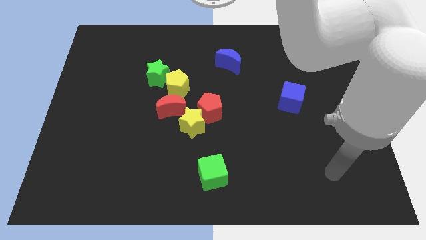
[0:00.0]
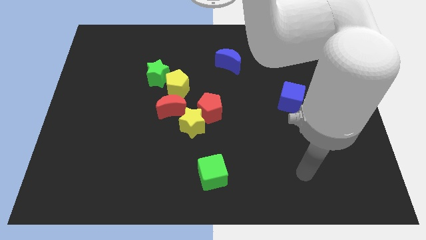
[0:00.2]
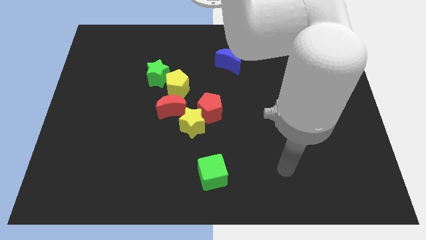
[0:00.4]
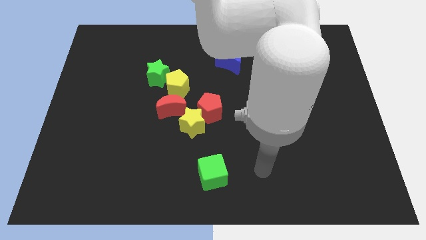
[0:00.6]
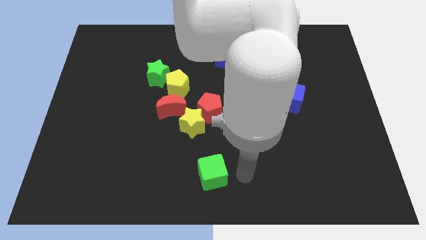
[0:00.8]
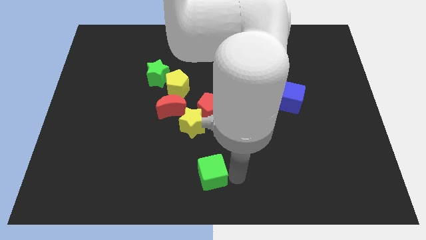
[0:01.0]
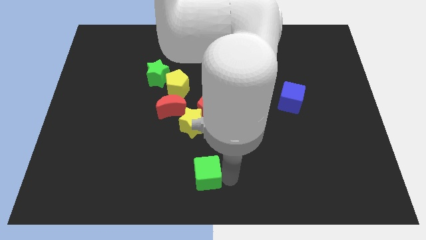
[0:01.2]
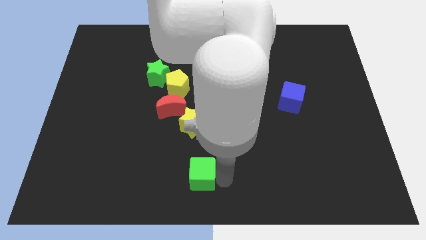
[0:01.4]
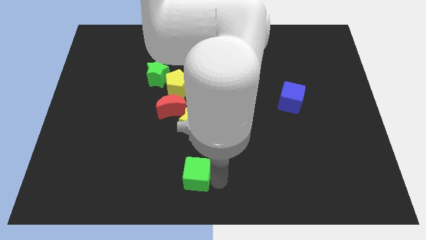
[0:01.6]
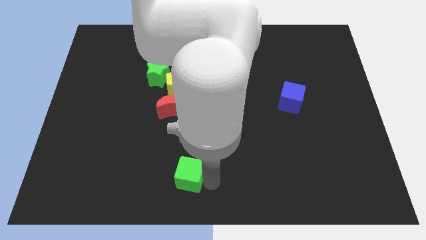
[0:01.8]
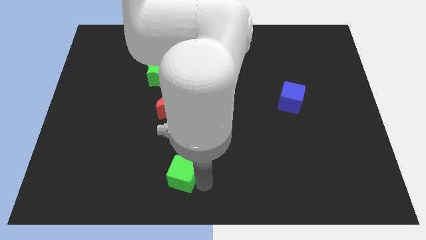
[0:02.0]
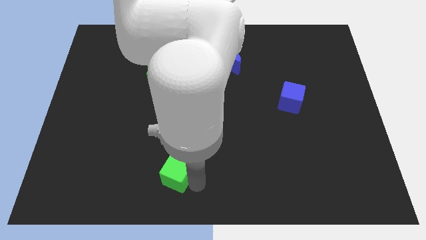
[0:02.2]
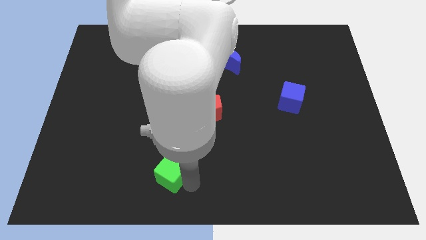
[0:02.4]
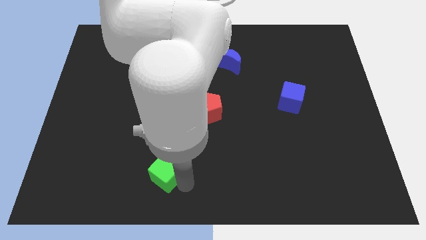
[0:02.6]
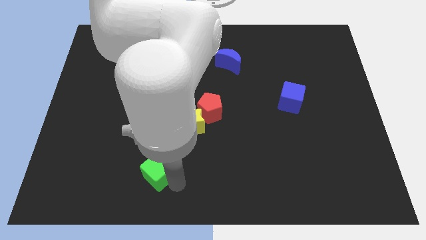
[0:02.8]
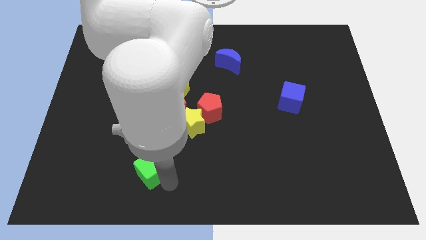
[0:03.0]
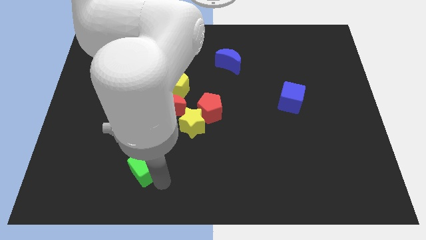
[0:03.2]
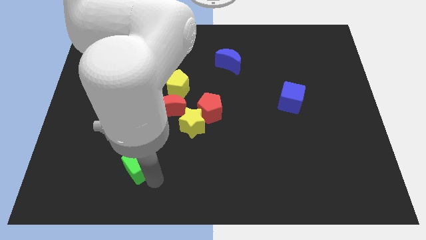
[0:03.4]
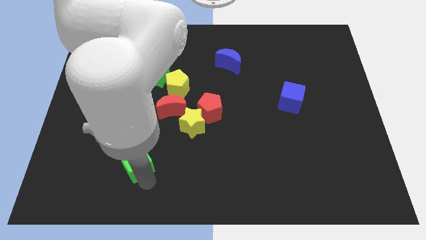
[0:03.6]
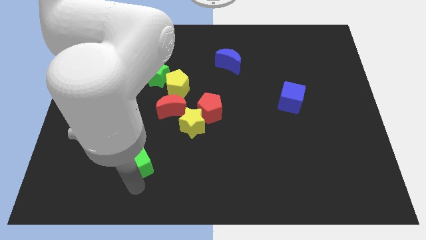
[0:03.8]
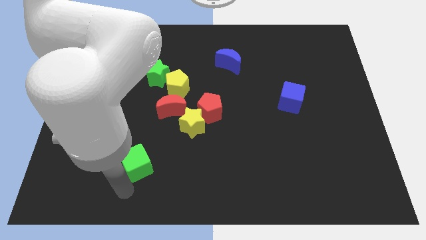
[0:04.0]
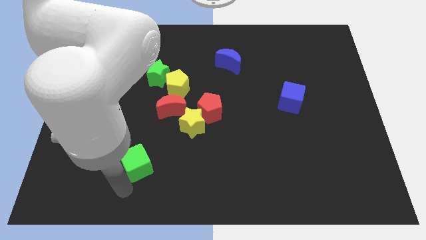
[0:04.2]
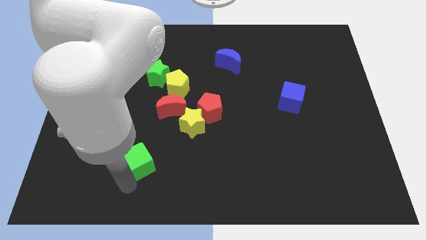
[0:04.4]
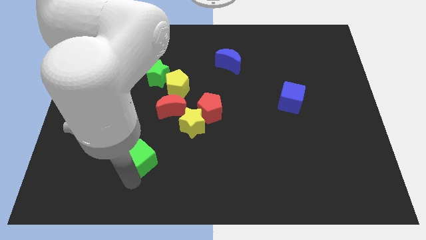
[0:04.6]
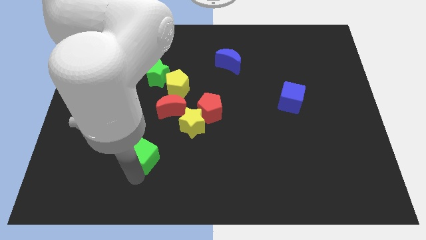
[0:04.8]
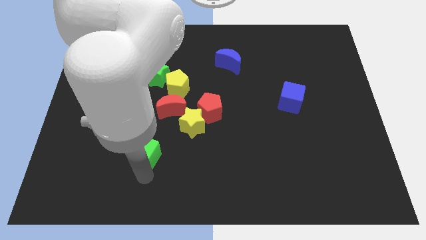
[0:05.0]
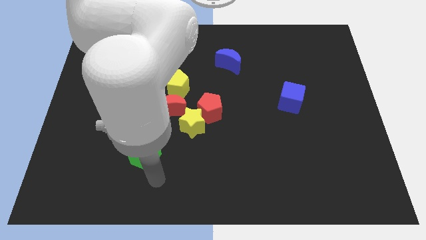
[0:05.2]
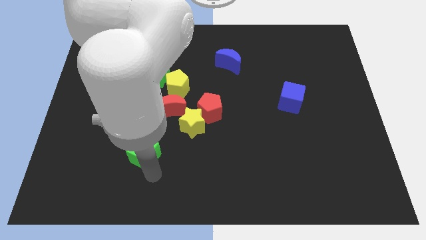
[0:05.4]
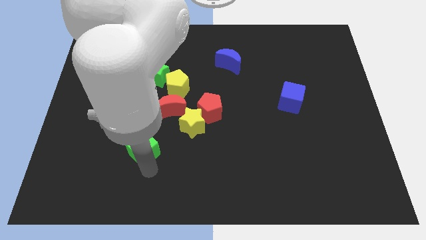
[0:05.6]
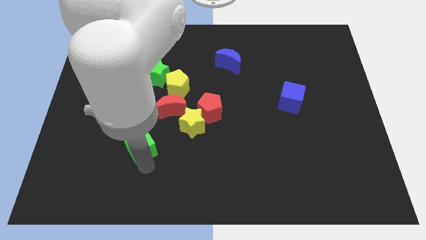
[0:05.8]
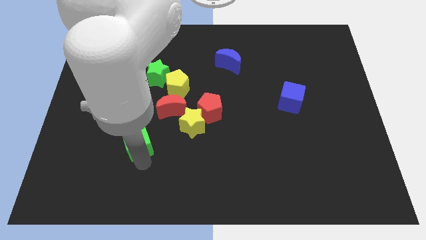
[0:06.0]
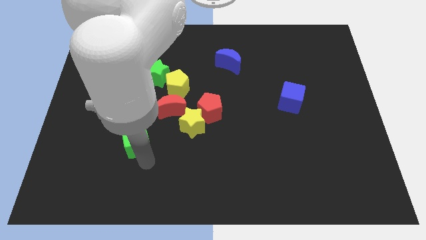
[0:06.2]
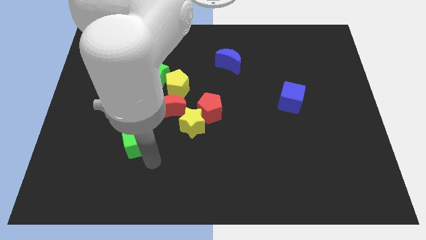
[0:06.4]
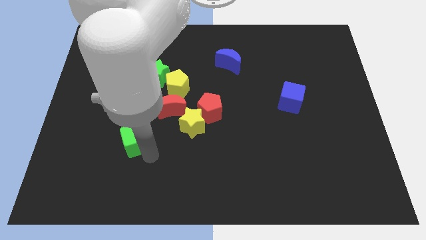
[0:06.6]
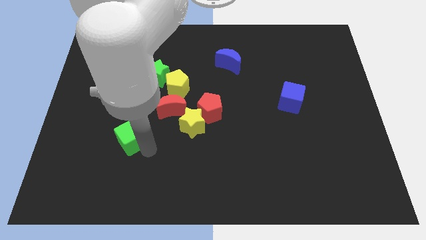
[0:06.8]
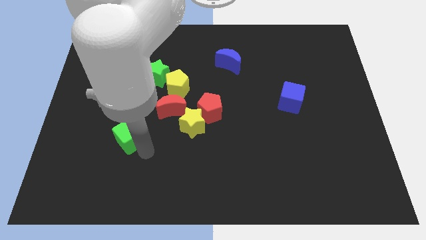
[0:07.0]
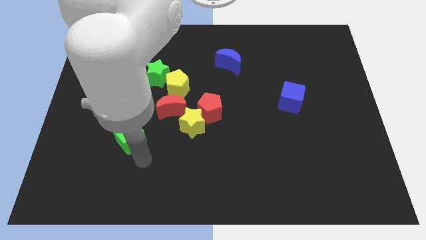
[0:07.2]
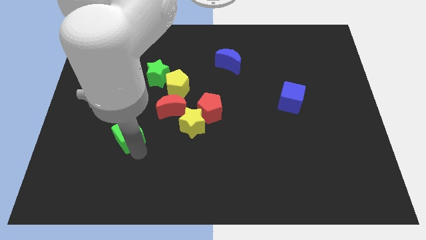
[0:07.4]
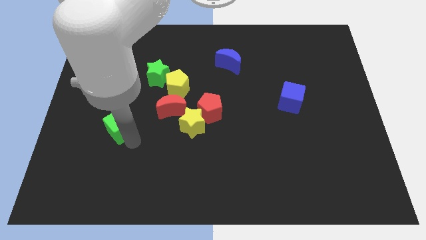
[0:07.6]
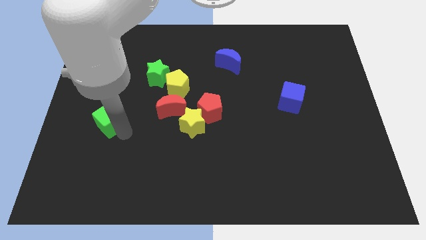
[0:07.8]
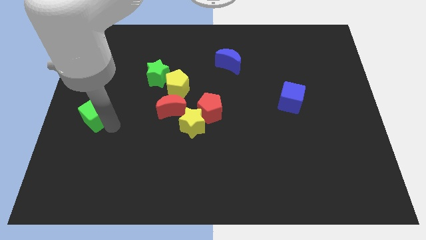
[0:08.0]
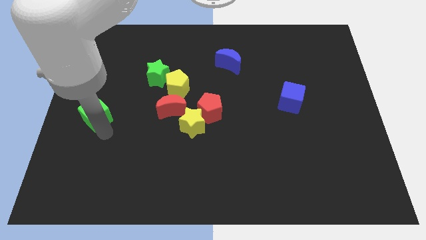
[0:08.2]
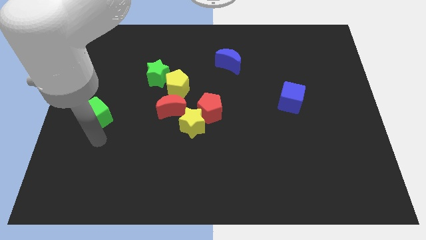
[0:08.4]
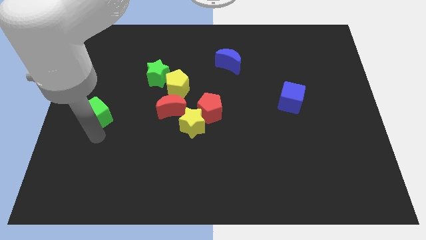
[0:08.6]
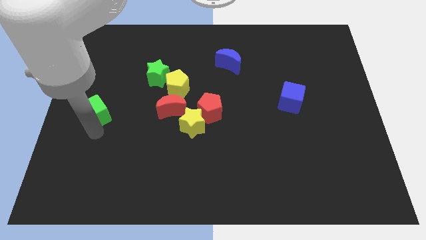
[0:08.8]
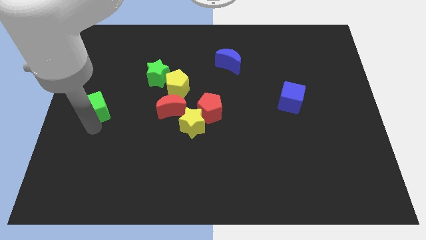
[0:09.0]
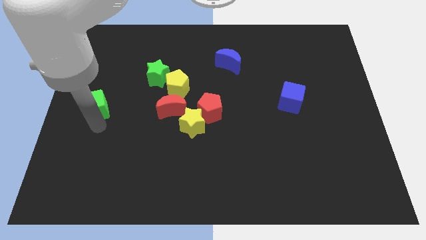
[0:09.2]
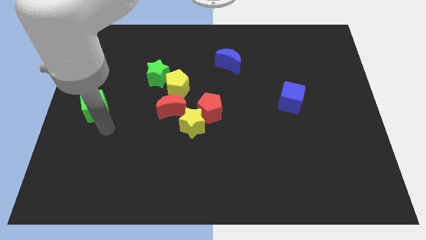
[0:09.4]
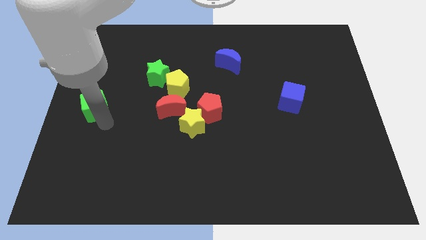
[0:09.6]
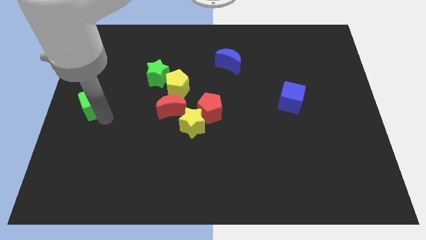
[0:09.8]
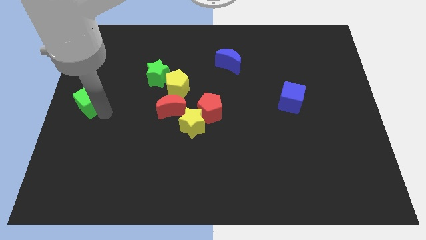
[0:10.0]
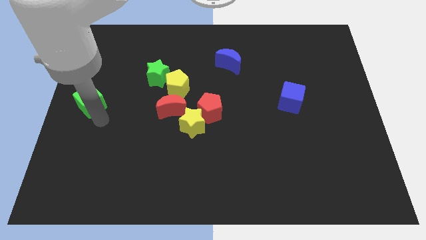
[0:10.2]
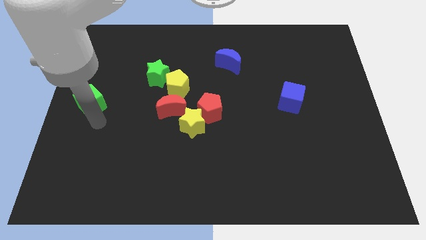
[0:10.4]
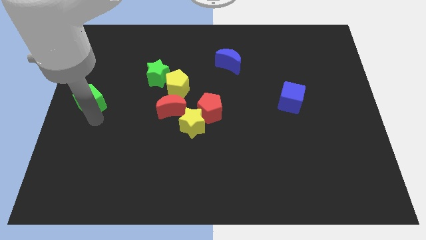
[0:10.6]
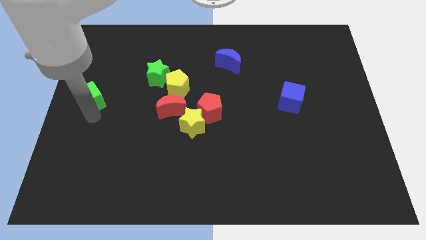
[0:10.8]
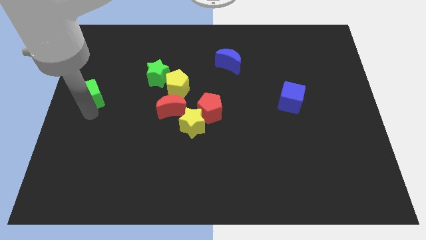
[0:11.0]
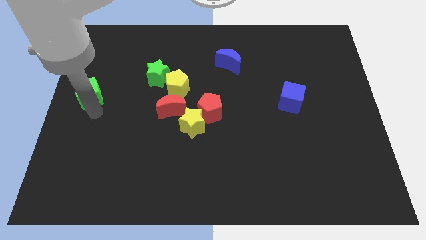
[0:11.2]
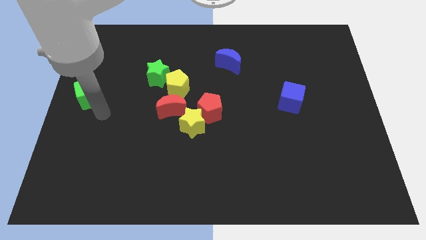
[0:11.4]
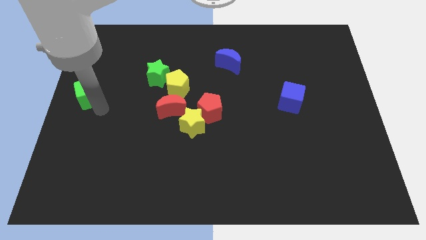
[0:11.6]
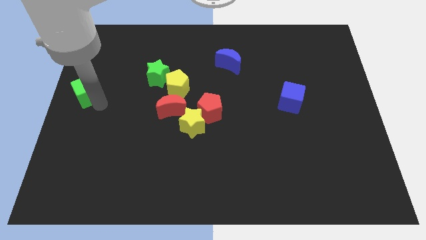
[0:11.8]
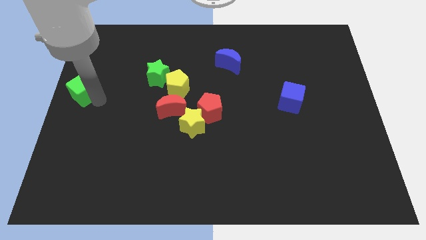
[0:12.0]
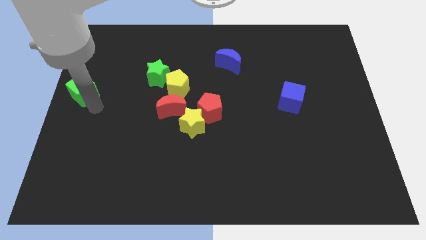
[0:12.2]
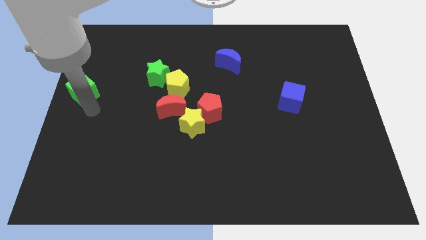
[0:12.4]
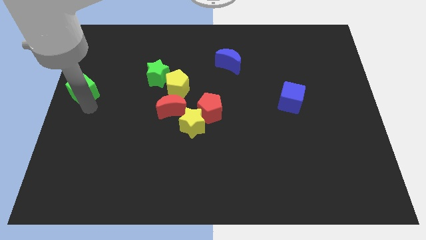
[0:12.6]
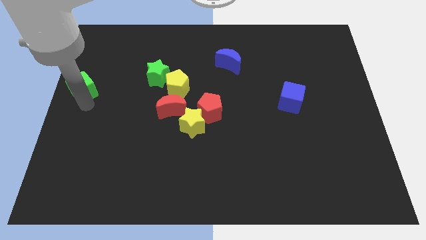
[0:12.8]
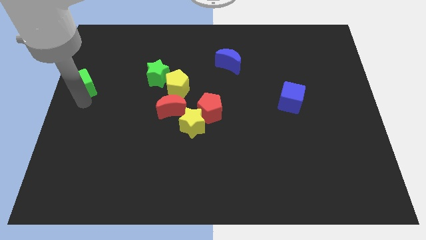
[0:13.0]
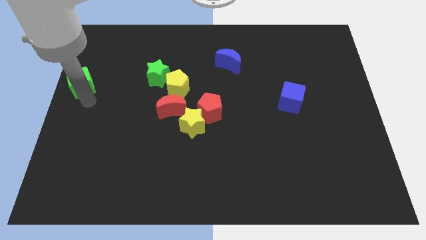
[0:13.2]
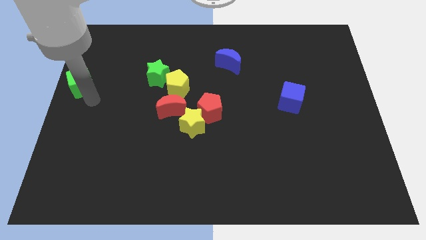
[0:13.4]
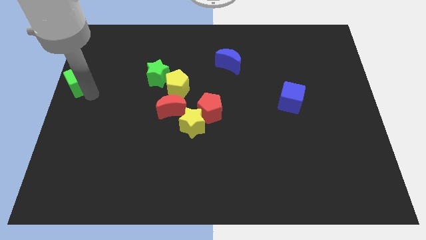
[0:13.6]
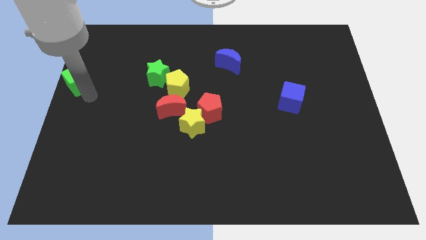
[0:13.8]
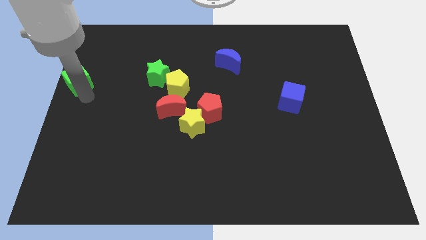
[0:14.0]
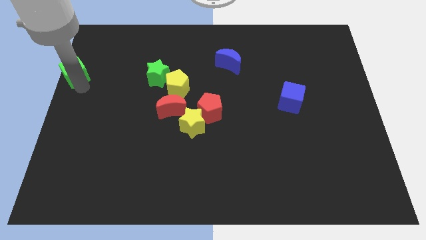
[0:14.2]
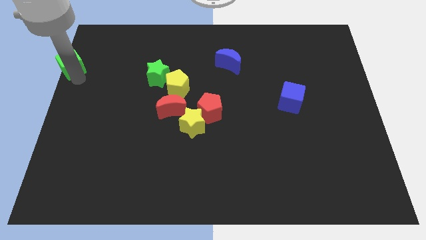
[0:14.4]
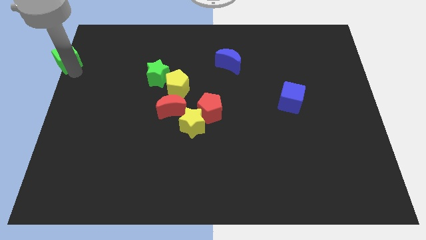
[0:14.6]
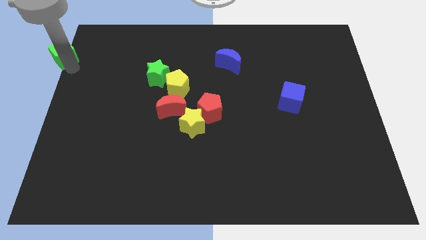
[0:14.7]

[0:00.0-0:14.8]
move the green cube to the top left of the board
